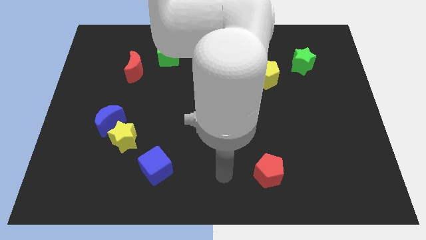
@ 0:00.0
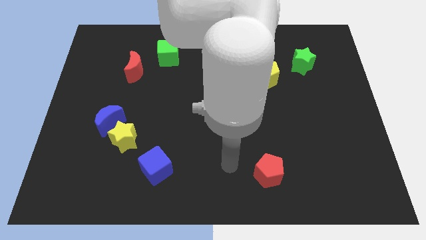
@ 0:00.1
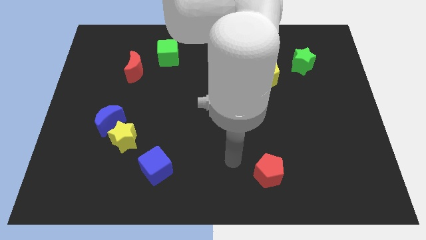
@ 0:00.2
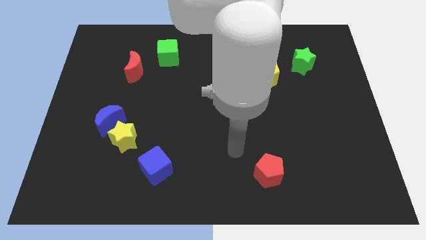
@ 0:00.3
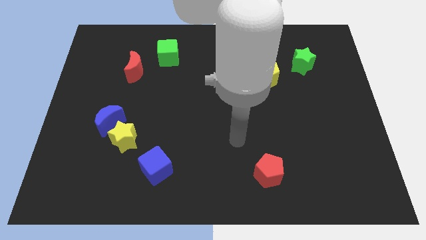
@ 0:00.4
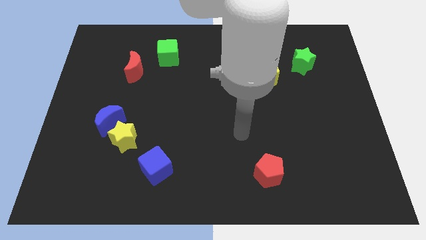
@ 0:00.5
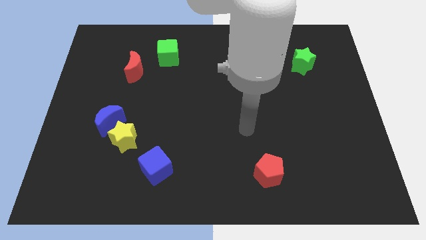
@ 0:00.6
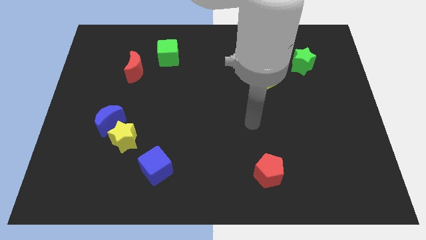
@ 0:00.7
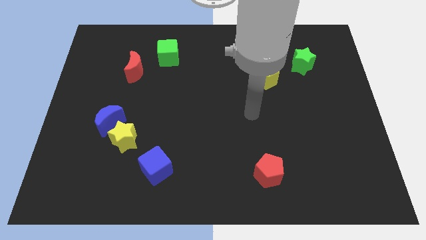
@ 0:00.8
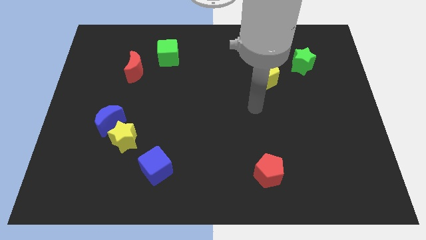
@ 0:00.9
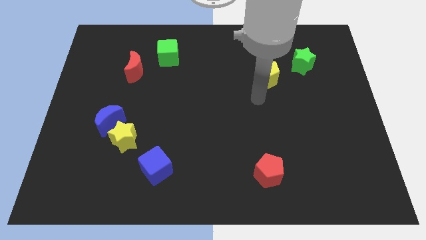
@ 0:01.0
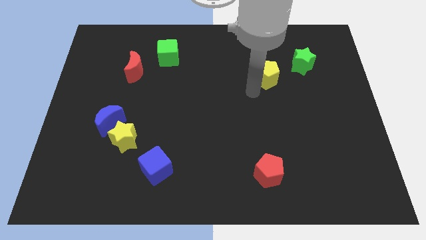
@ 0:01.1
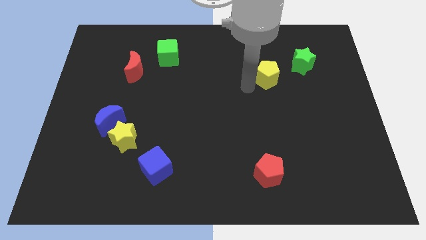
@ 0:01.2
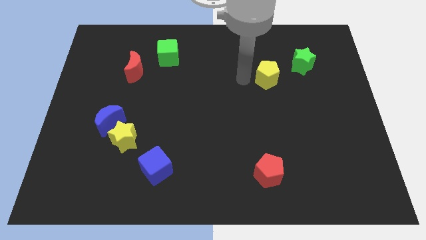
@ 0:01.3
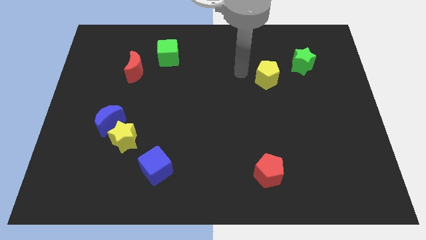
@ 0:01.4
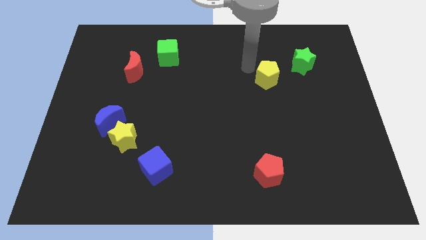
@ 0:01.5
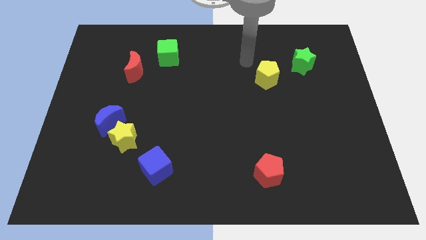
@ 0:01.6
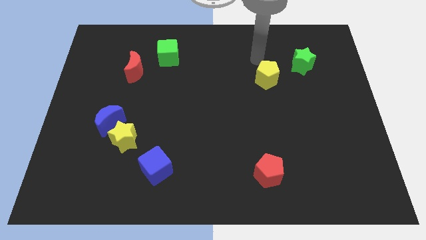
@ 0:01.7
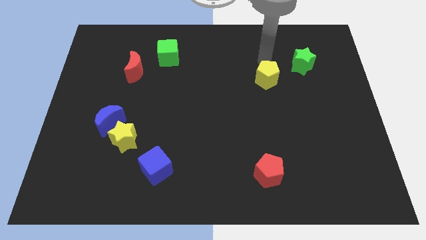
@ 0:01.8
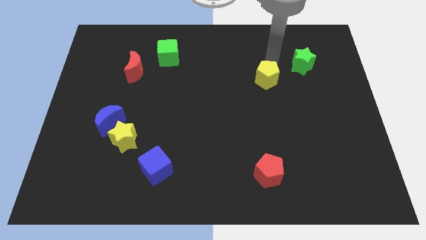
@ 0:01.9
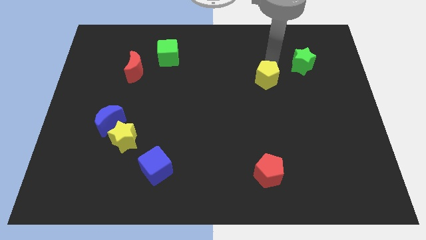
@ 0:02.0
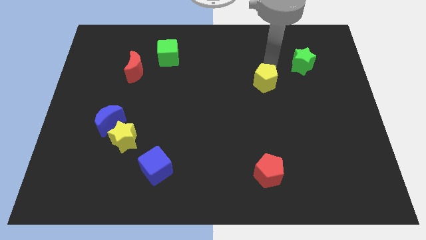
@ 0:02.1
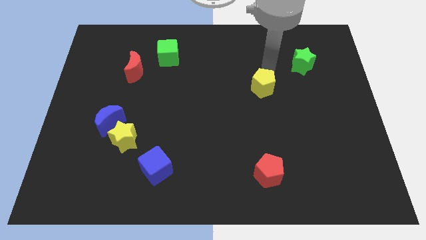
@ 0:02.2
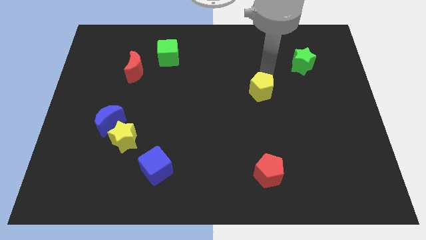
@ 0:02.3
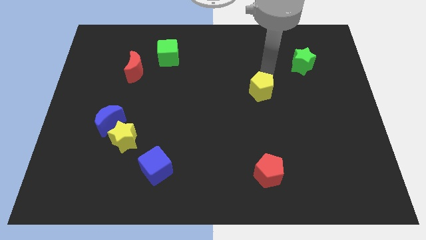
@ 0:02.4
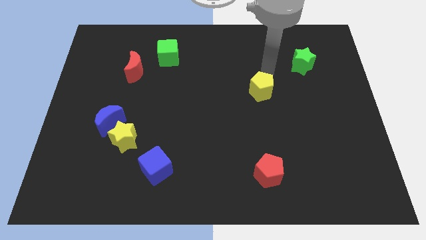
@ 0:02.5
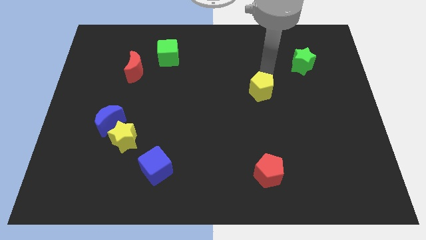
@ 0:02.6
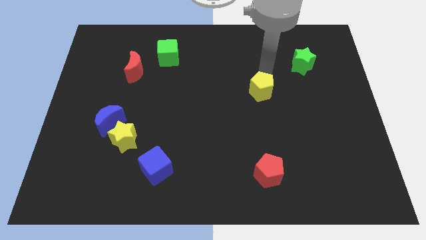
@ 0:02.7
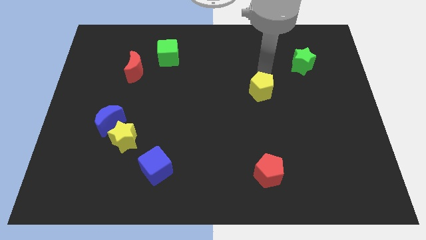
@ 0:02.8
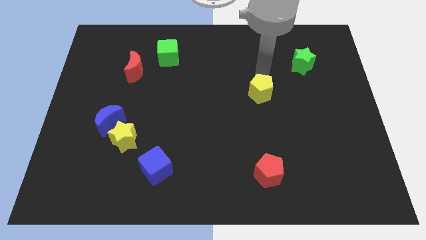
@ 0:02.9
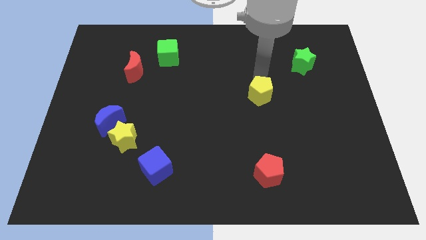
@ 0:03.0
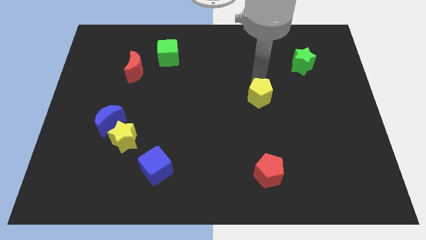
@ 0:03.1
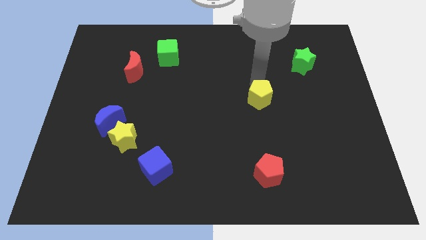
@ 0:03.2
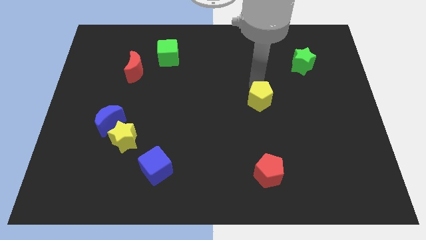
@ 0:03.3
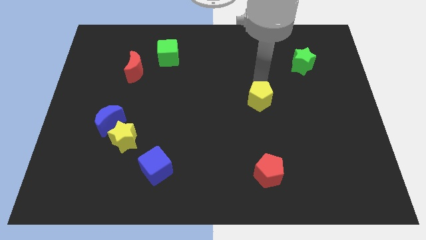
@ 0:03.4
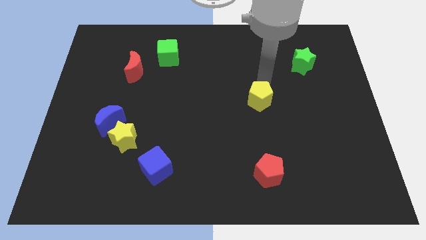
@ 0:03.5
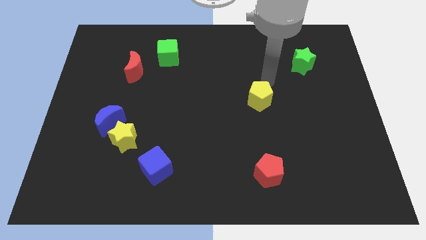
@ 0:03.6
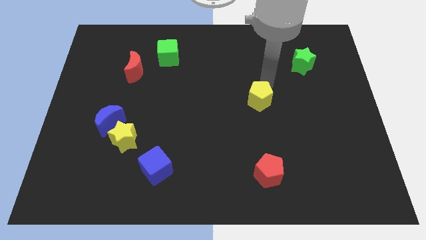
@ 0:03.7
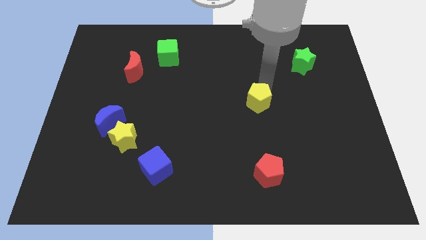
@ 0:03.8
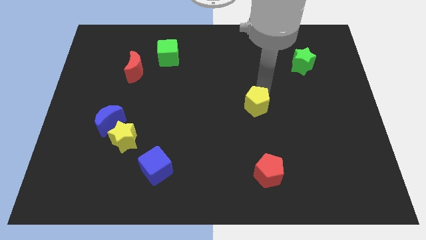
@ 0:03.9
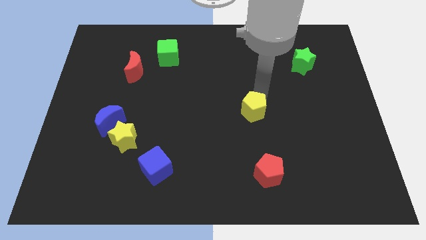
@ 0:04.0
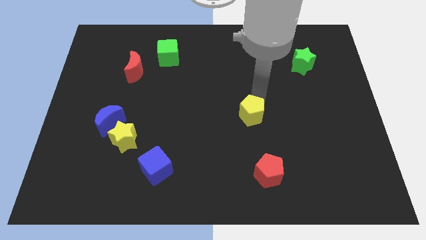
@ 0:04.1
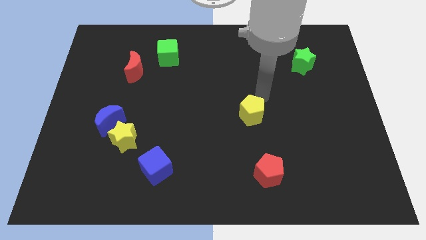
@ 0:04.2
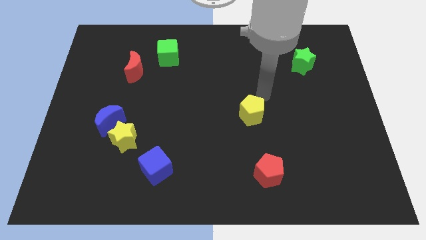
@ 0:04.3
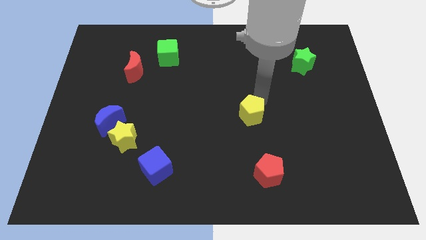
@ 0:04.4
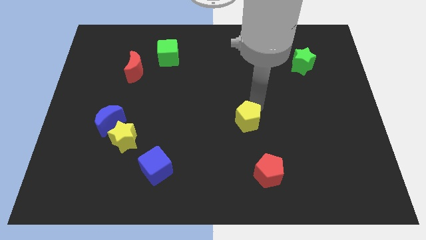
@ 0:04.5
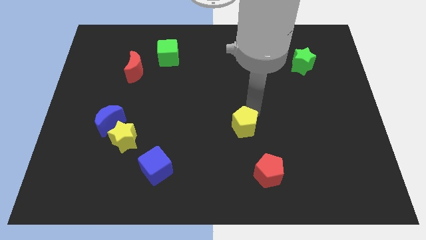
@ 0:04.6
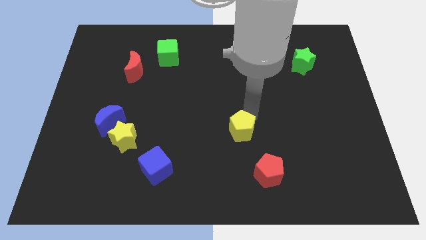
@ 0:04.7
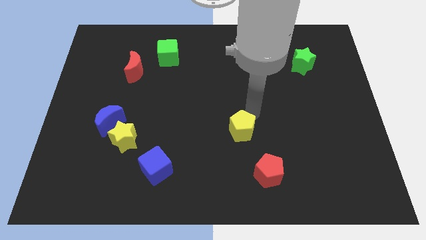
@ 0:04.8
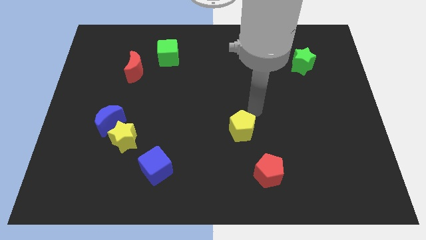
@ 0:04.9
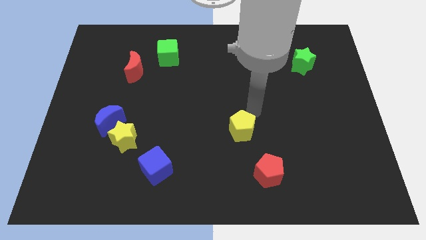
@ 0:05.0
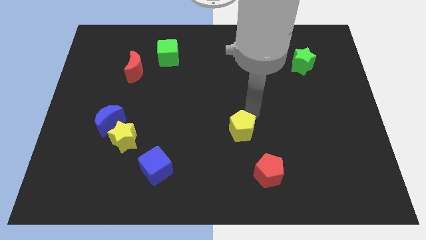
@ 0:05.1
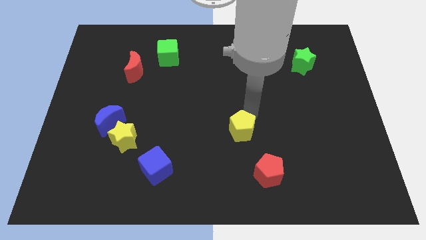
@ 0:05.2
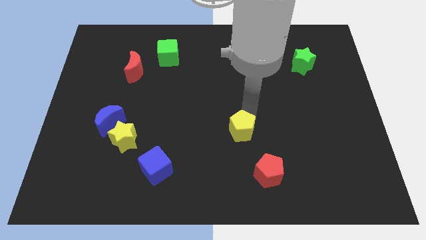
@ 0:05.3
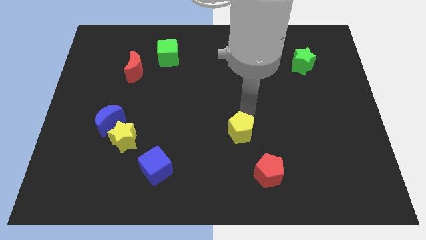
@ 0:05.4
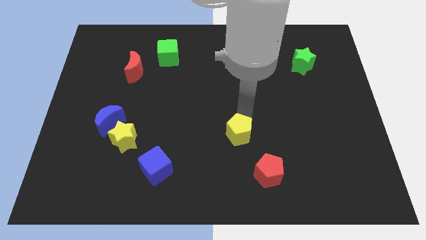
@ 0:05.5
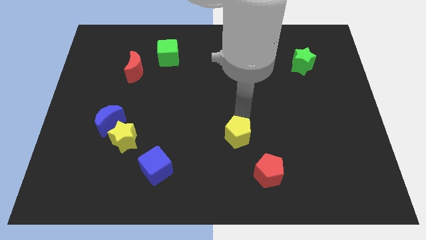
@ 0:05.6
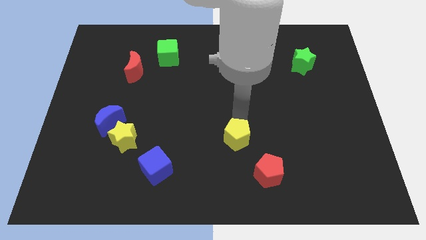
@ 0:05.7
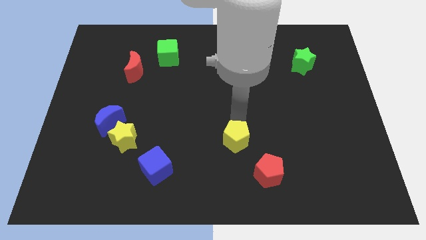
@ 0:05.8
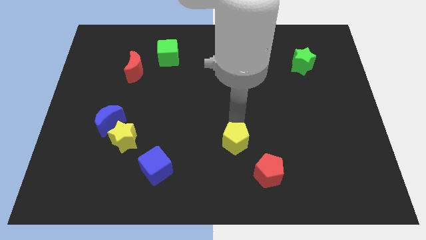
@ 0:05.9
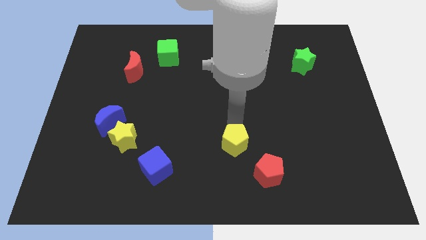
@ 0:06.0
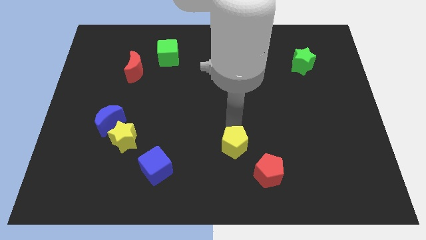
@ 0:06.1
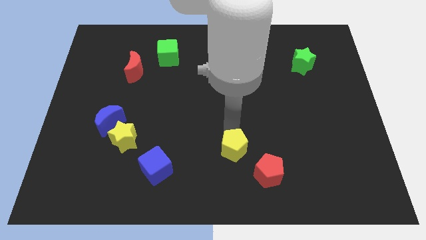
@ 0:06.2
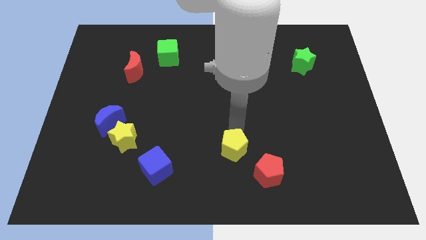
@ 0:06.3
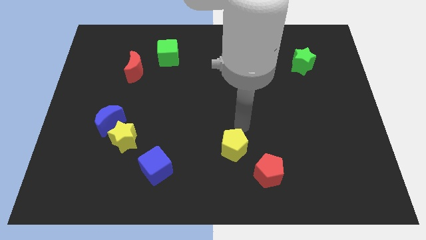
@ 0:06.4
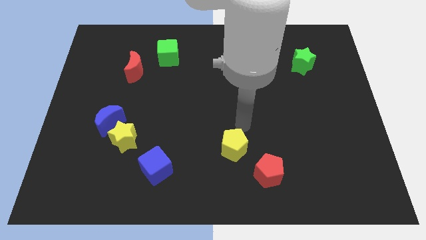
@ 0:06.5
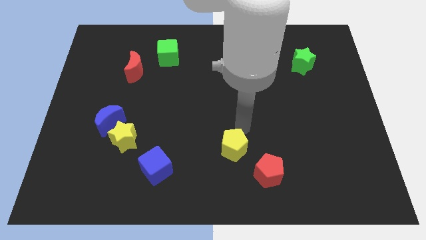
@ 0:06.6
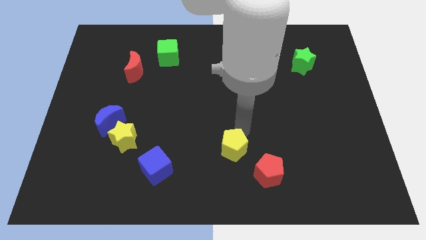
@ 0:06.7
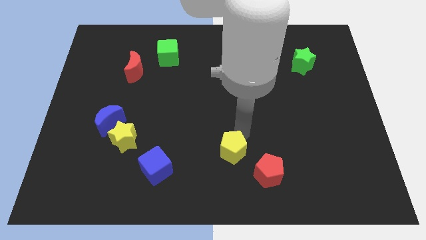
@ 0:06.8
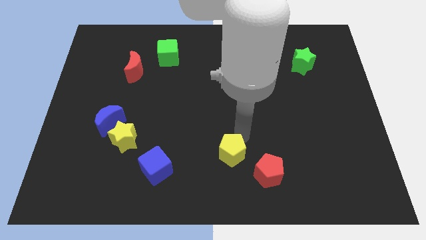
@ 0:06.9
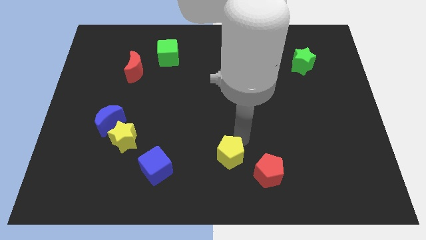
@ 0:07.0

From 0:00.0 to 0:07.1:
slide the yellow pentagon to the bottom
